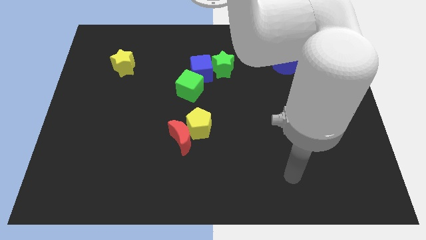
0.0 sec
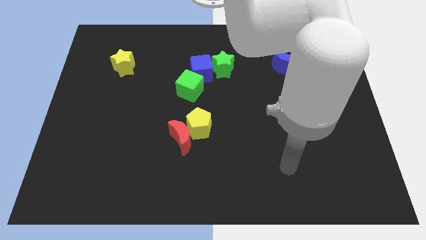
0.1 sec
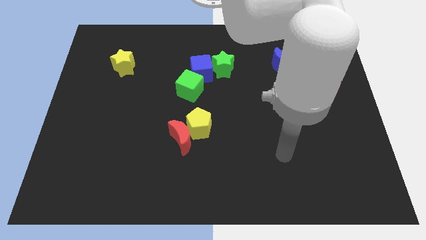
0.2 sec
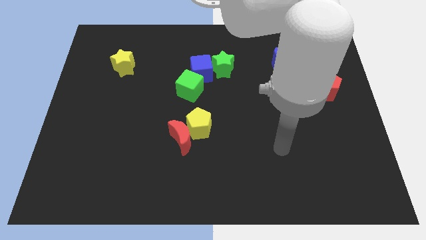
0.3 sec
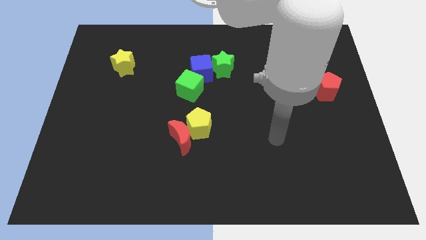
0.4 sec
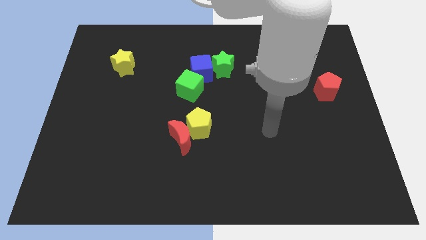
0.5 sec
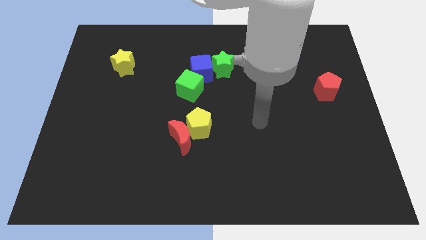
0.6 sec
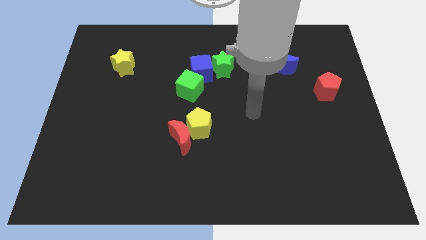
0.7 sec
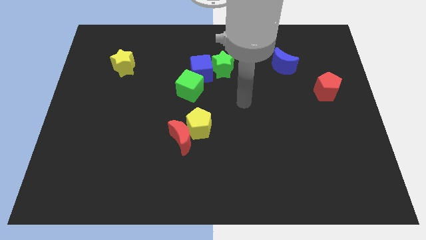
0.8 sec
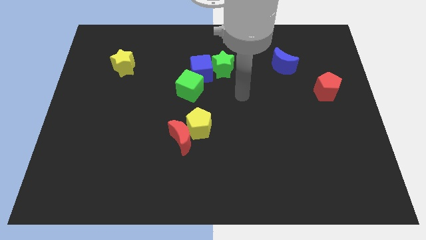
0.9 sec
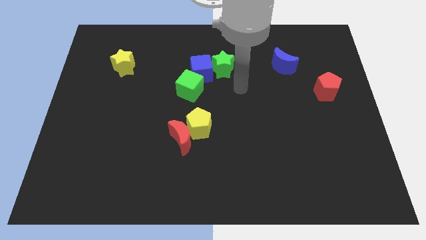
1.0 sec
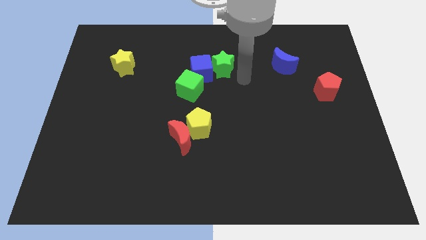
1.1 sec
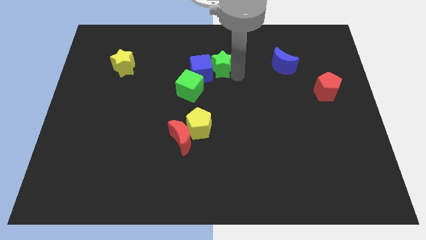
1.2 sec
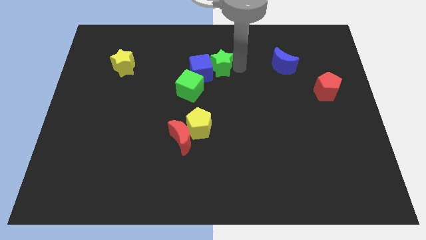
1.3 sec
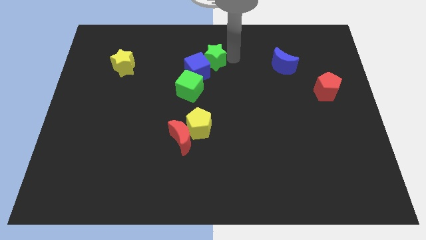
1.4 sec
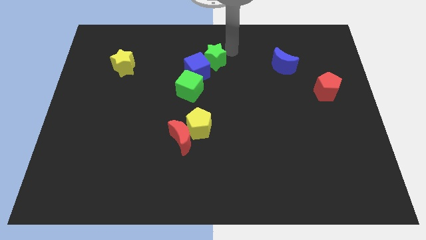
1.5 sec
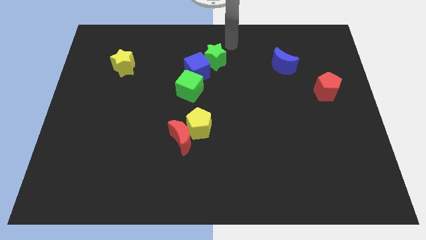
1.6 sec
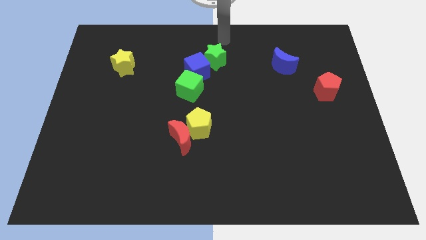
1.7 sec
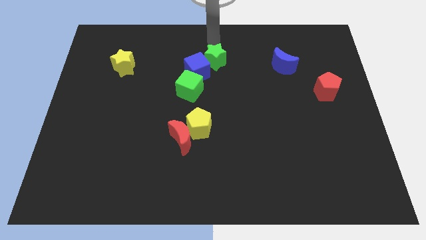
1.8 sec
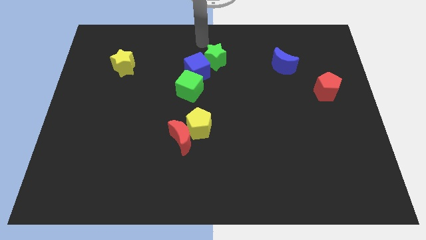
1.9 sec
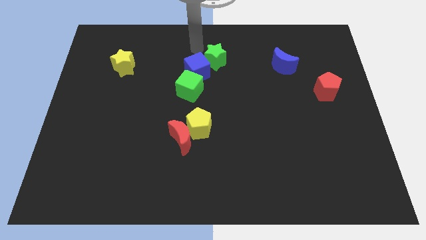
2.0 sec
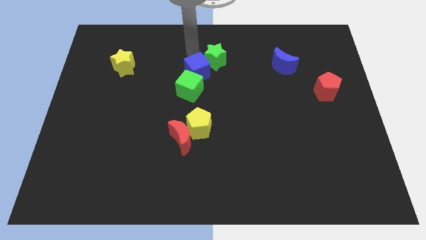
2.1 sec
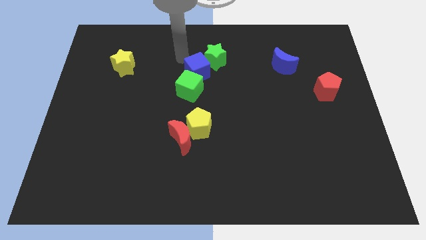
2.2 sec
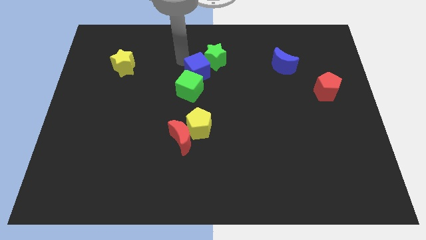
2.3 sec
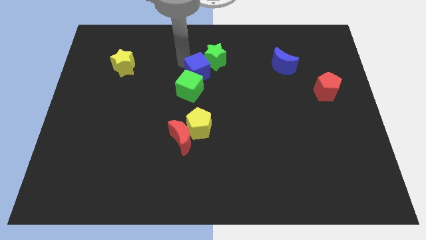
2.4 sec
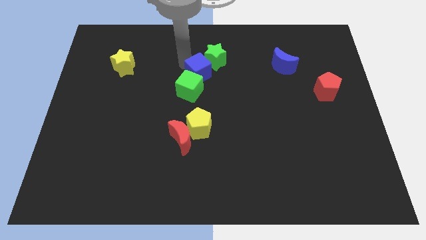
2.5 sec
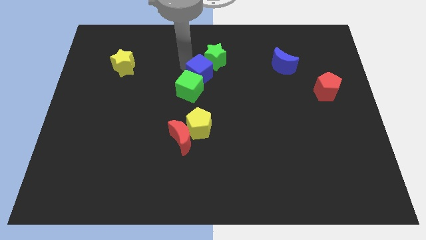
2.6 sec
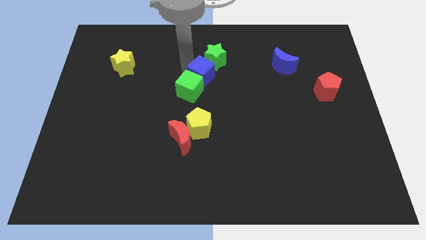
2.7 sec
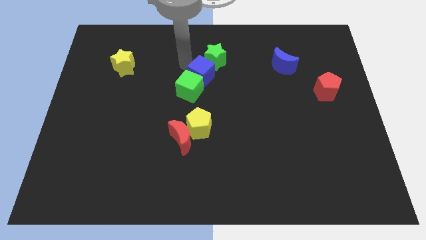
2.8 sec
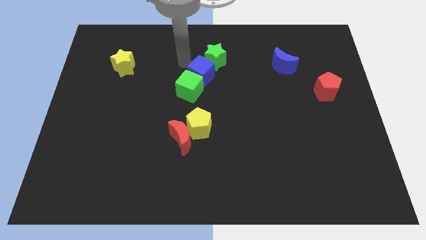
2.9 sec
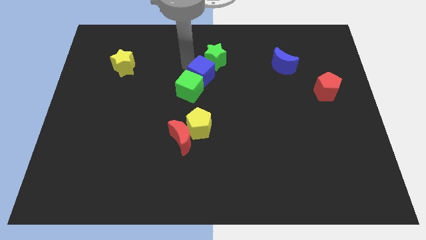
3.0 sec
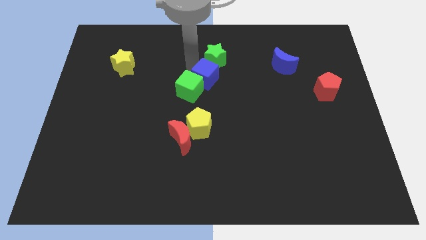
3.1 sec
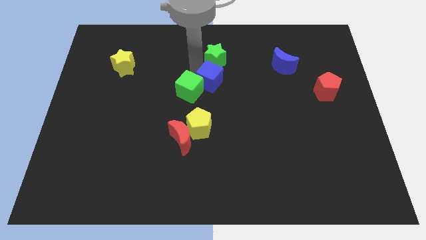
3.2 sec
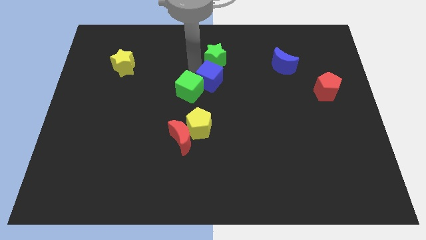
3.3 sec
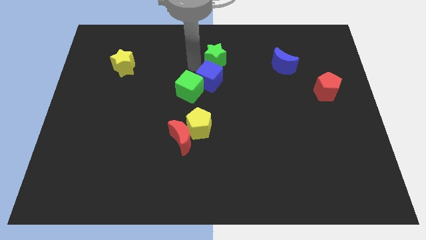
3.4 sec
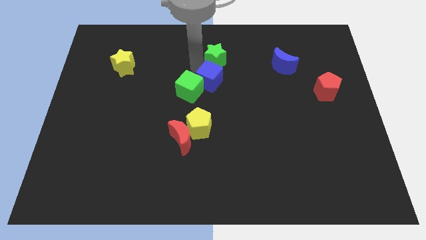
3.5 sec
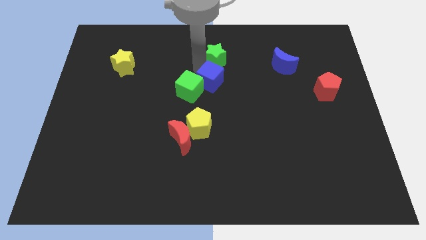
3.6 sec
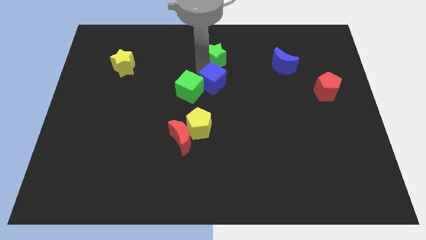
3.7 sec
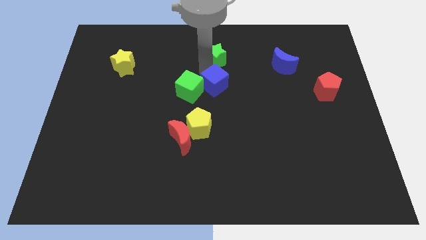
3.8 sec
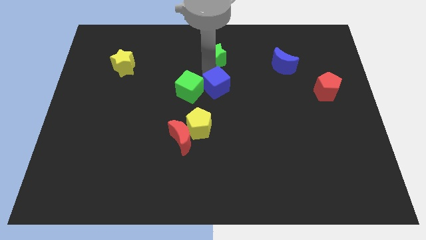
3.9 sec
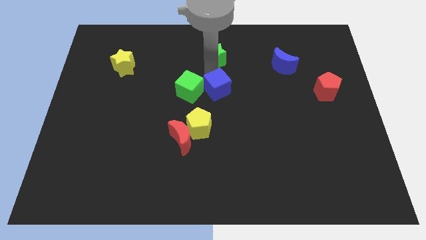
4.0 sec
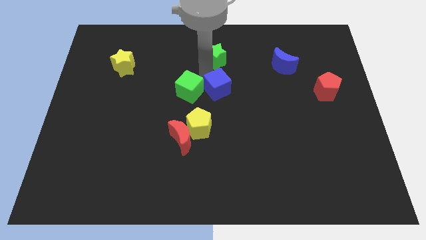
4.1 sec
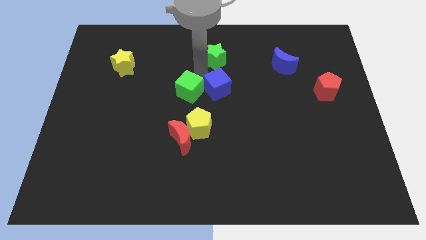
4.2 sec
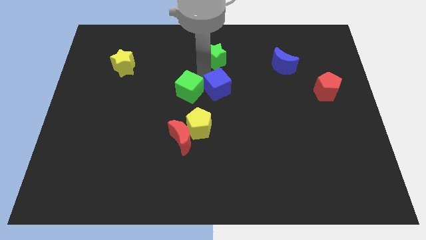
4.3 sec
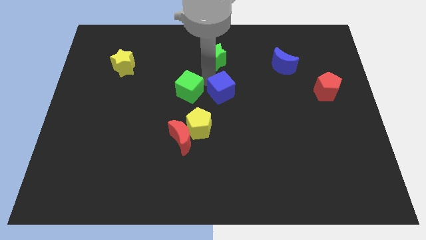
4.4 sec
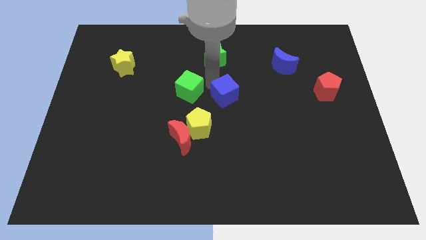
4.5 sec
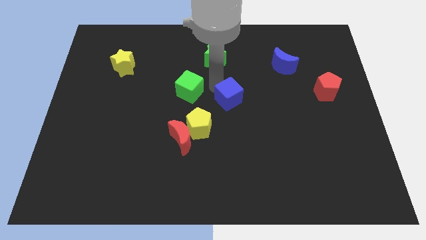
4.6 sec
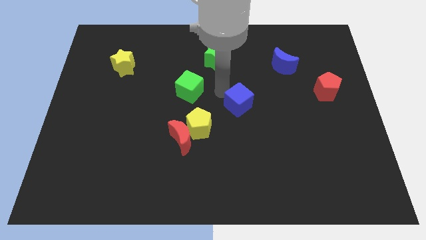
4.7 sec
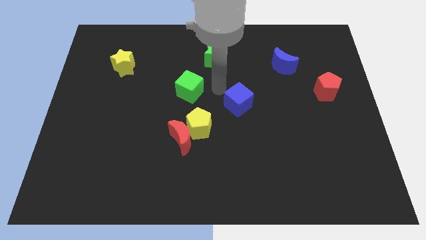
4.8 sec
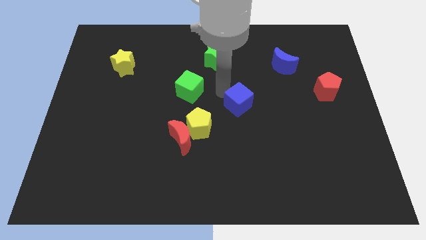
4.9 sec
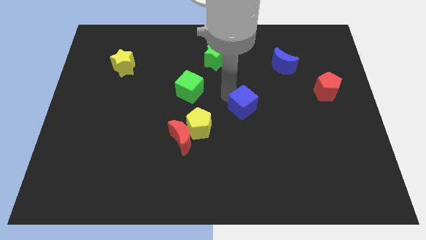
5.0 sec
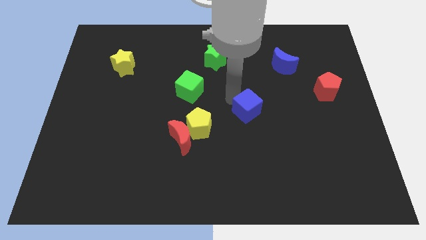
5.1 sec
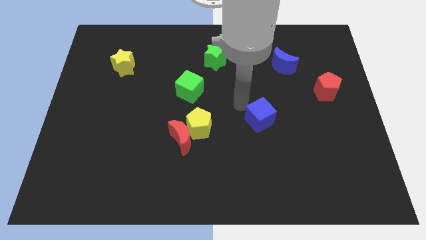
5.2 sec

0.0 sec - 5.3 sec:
push the blue cube downwards and to the right

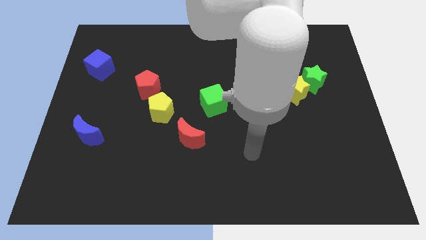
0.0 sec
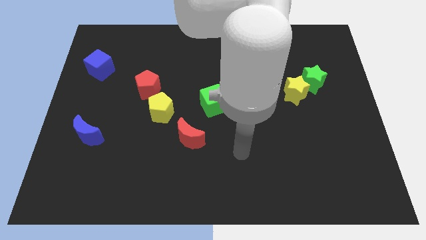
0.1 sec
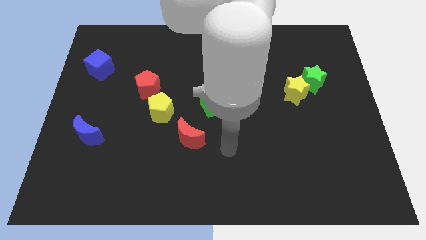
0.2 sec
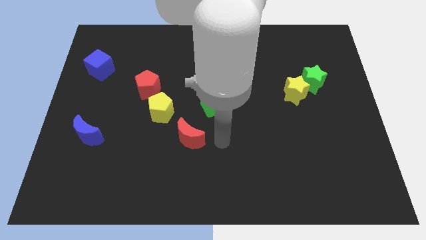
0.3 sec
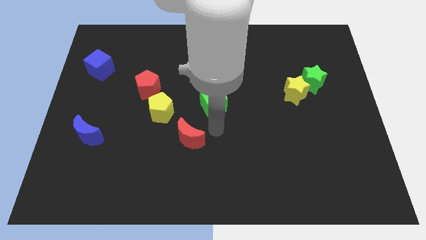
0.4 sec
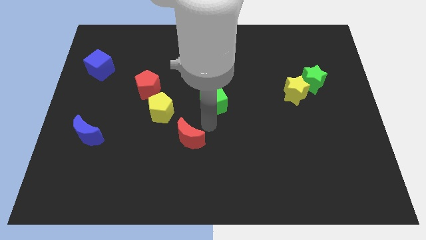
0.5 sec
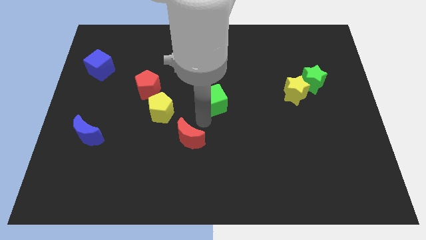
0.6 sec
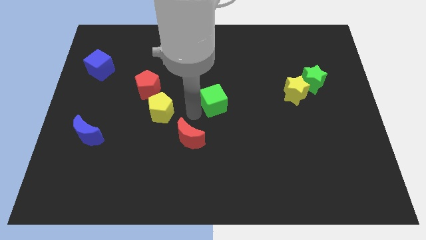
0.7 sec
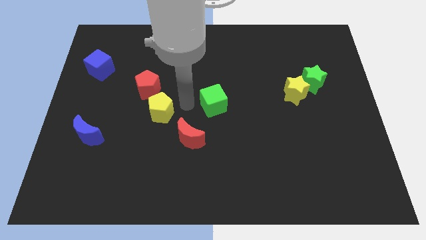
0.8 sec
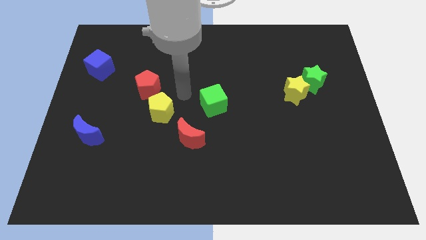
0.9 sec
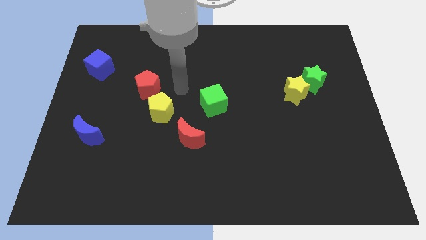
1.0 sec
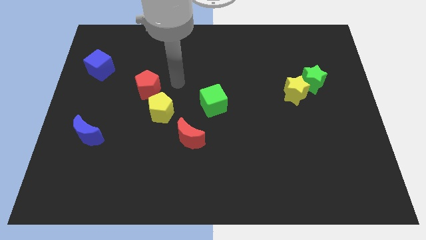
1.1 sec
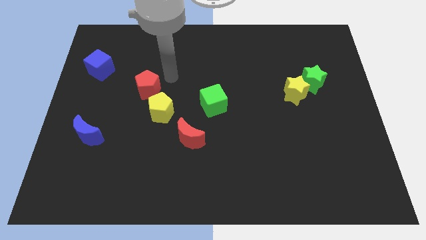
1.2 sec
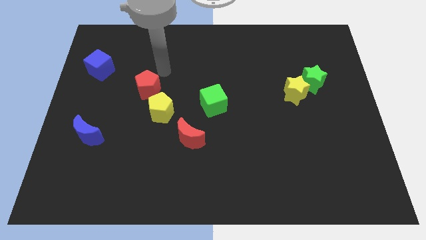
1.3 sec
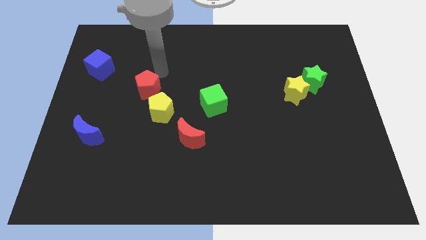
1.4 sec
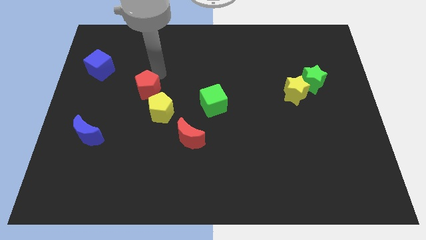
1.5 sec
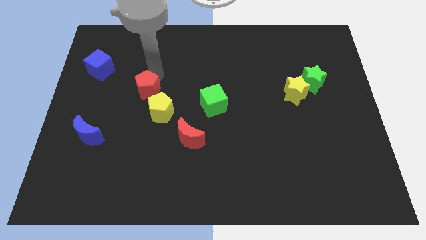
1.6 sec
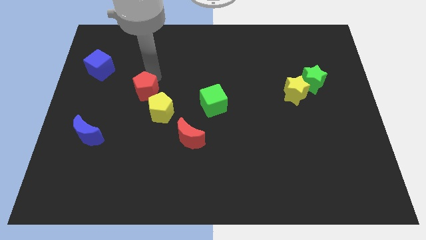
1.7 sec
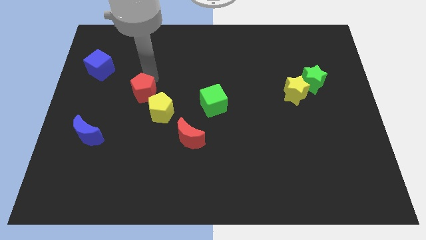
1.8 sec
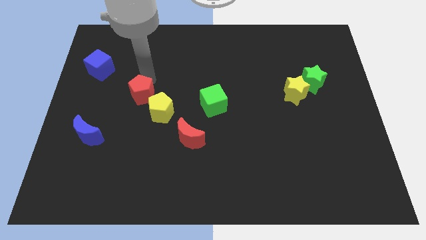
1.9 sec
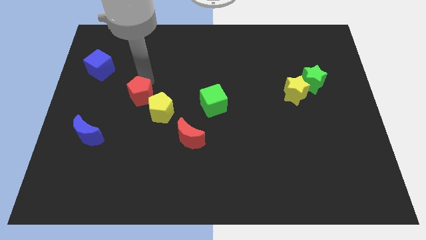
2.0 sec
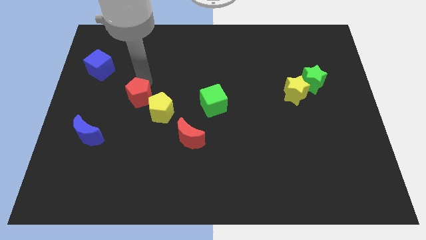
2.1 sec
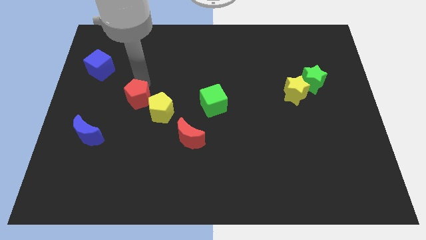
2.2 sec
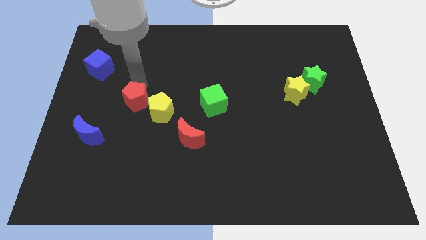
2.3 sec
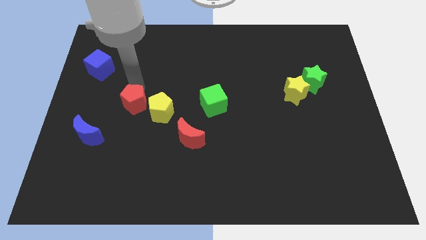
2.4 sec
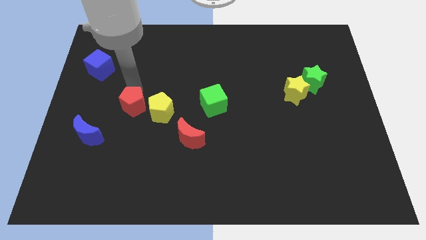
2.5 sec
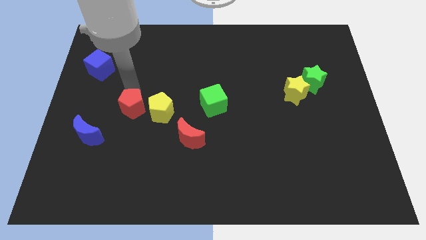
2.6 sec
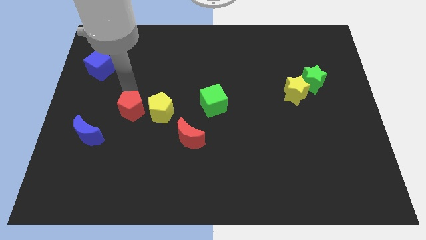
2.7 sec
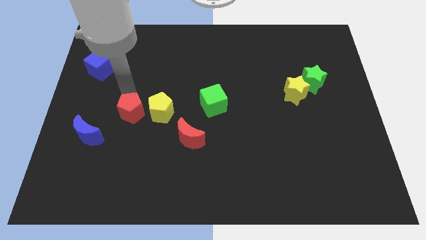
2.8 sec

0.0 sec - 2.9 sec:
move the red pentagon downwards a bit
